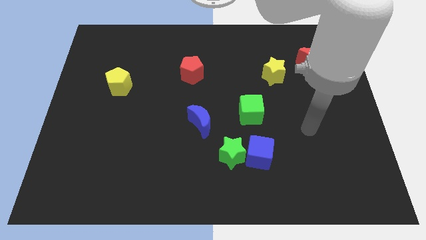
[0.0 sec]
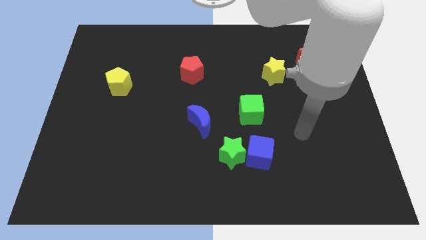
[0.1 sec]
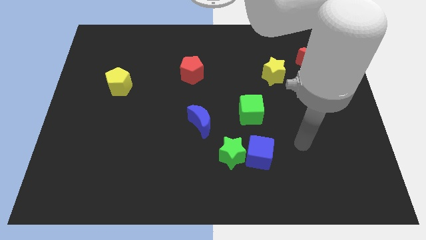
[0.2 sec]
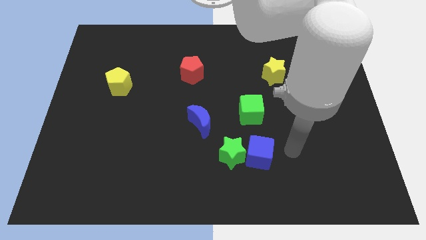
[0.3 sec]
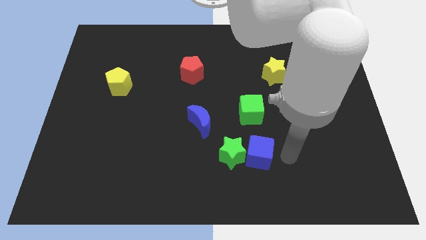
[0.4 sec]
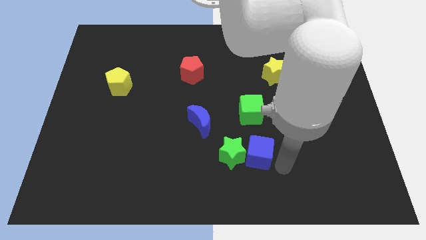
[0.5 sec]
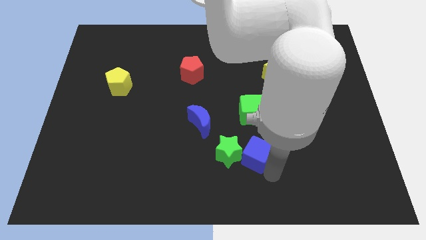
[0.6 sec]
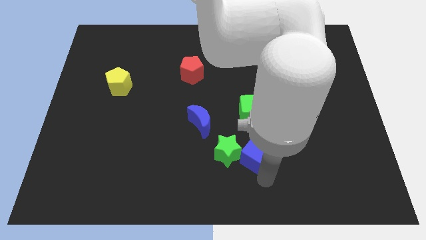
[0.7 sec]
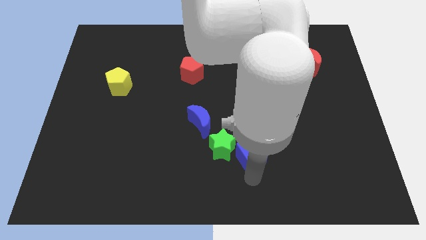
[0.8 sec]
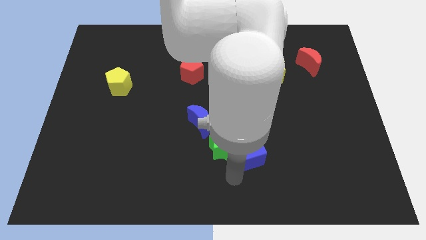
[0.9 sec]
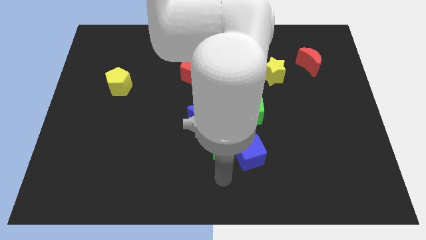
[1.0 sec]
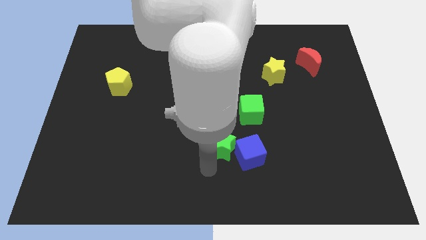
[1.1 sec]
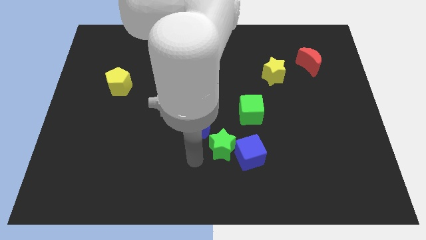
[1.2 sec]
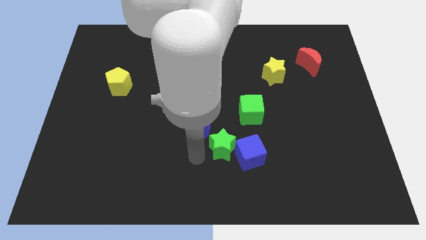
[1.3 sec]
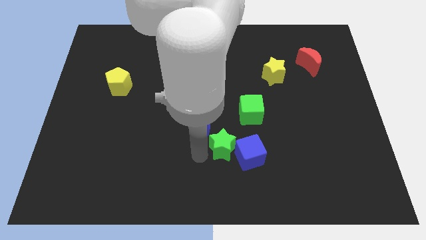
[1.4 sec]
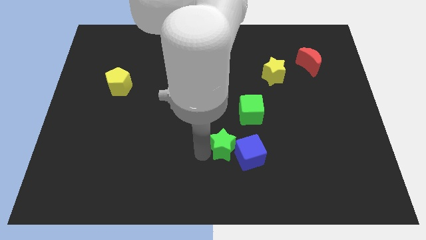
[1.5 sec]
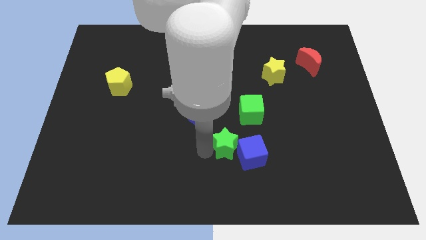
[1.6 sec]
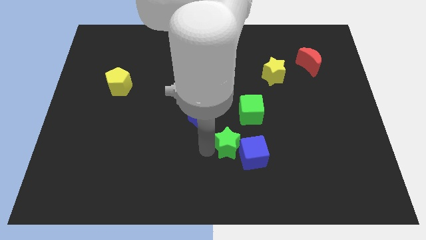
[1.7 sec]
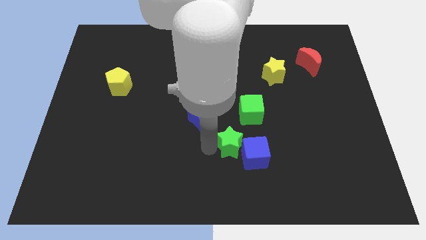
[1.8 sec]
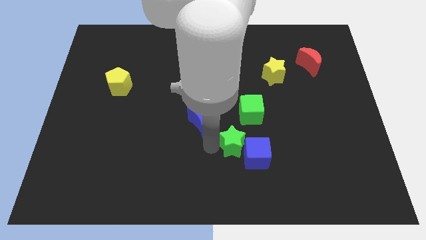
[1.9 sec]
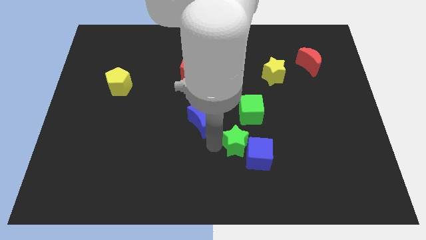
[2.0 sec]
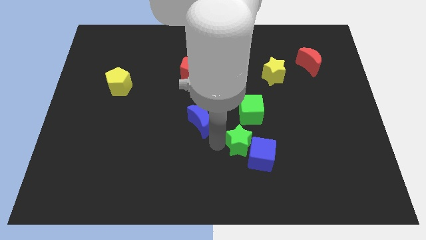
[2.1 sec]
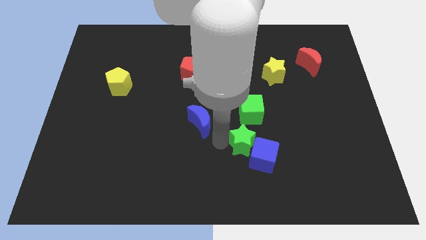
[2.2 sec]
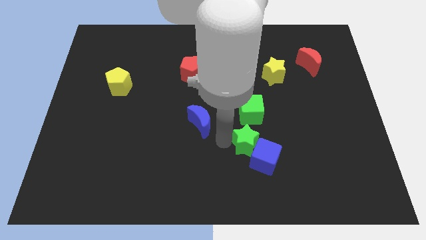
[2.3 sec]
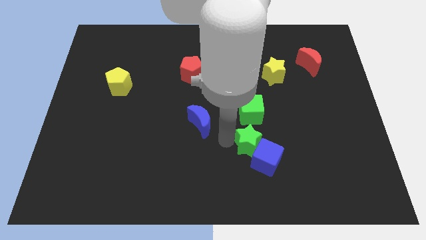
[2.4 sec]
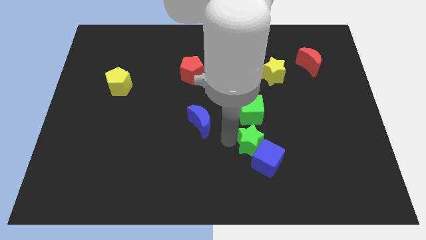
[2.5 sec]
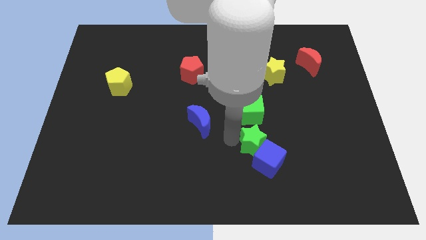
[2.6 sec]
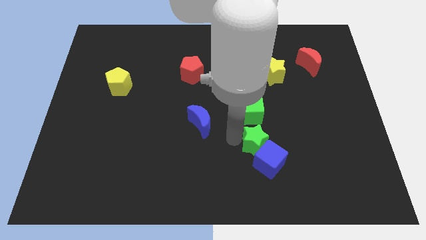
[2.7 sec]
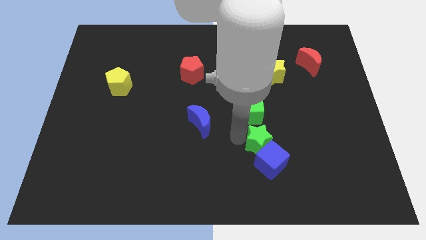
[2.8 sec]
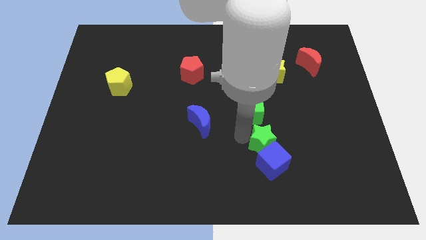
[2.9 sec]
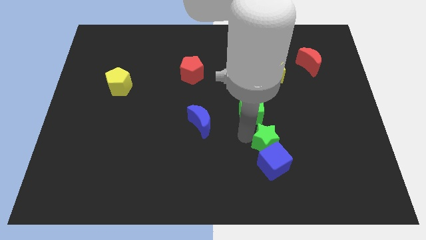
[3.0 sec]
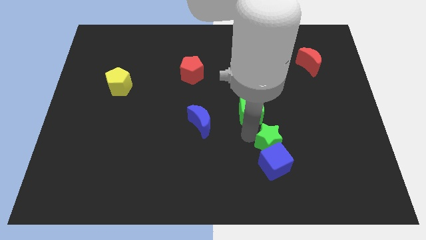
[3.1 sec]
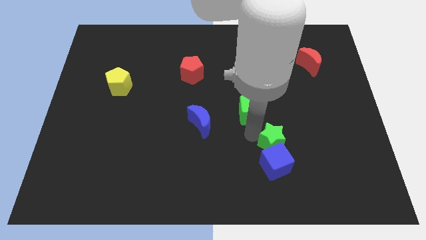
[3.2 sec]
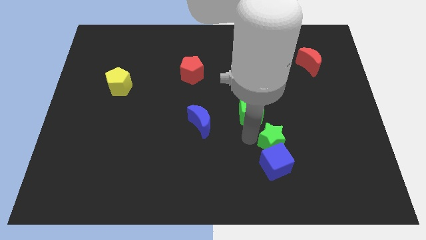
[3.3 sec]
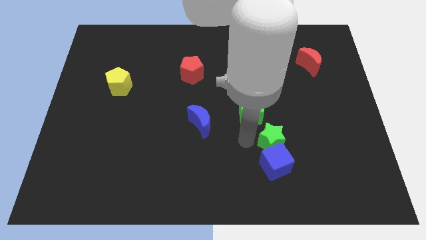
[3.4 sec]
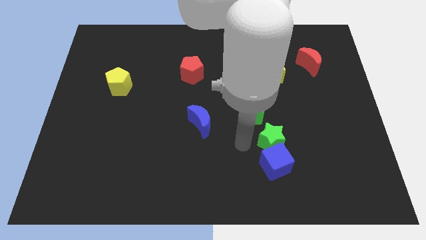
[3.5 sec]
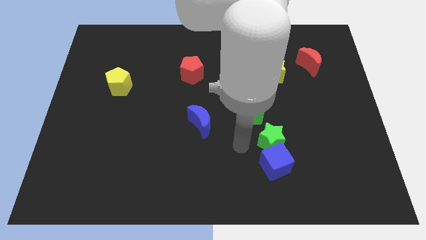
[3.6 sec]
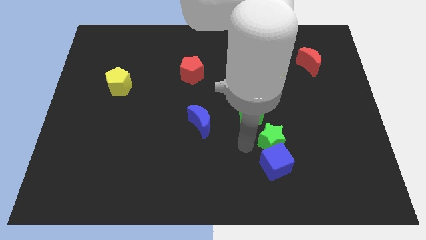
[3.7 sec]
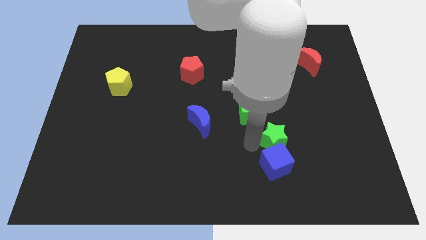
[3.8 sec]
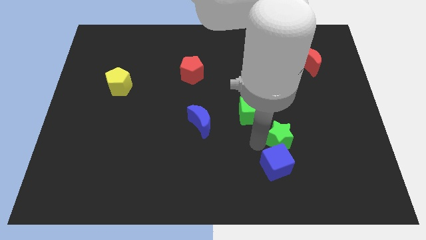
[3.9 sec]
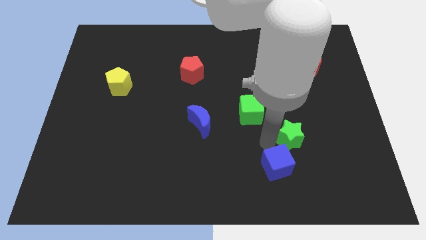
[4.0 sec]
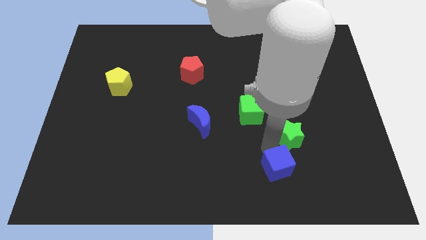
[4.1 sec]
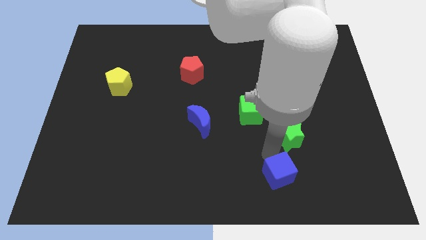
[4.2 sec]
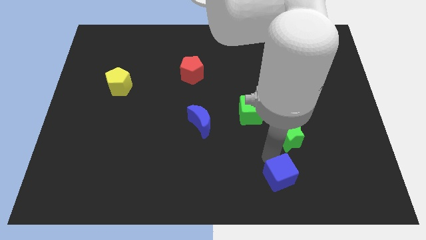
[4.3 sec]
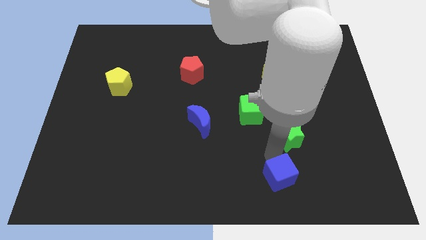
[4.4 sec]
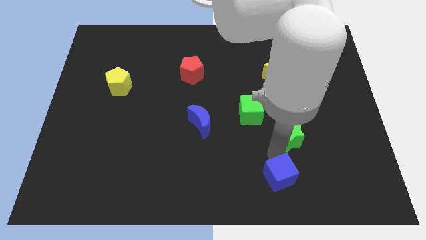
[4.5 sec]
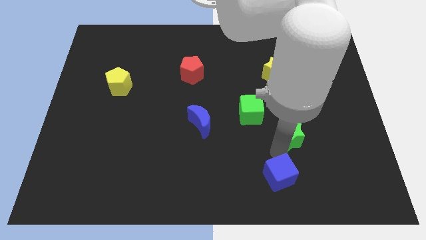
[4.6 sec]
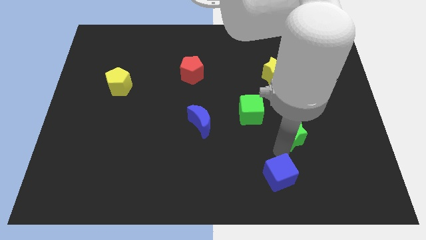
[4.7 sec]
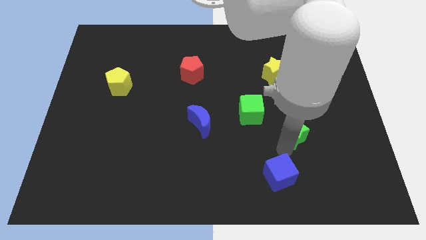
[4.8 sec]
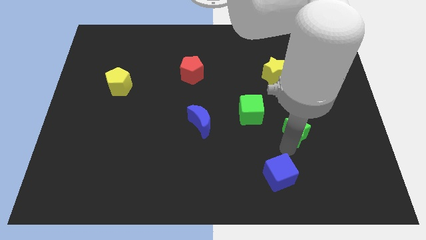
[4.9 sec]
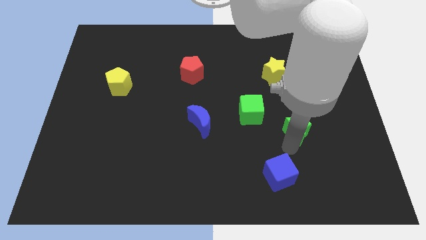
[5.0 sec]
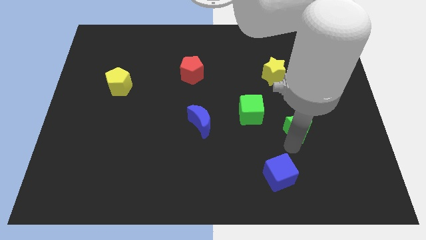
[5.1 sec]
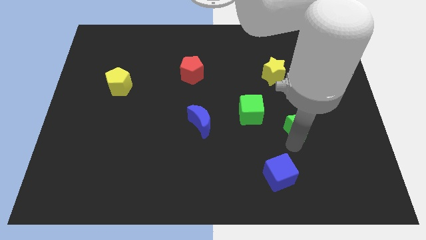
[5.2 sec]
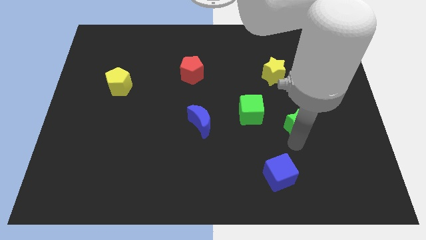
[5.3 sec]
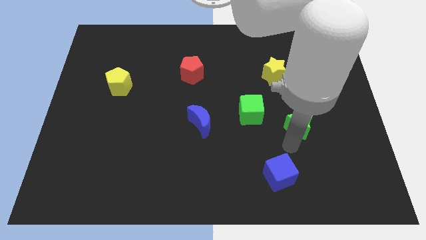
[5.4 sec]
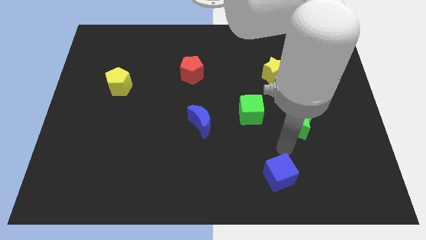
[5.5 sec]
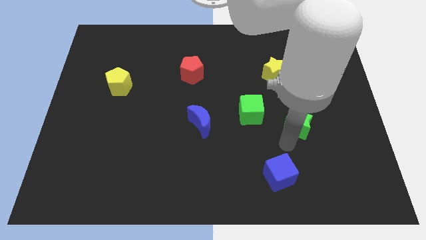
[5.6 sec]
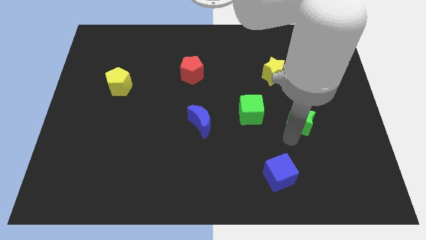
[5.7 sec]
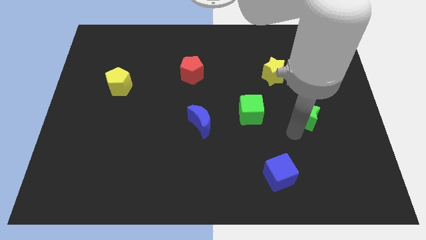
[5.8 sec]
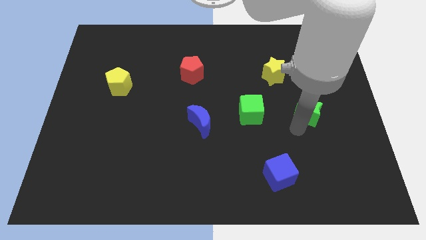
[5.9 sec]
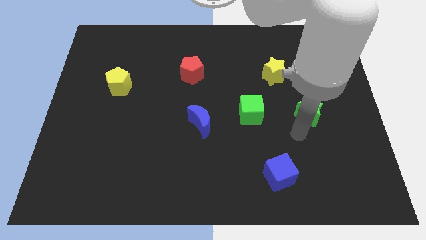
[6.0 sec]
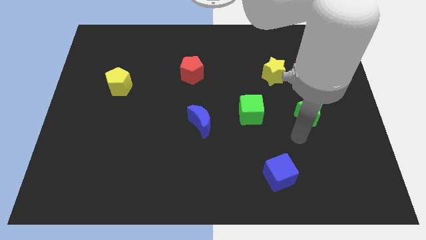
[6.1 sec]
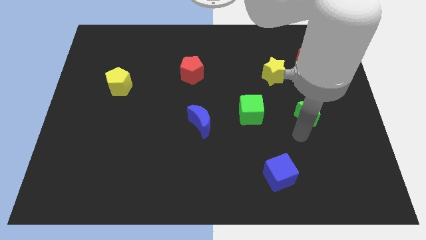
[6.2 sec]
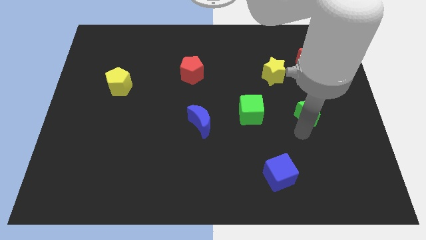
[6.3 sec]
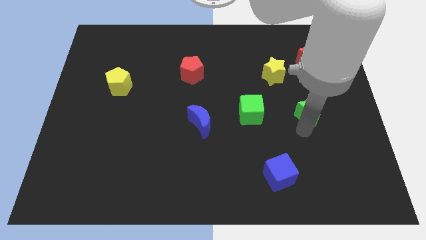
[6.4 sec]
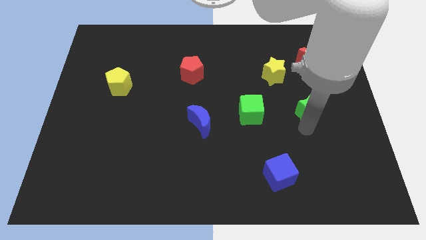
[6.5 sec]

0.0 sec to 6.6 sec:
slide the green star diagonally up and to the right

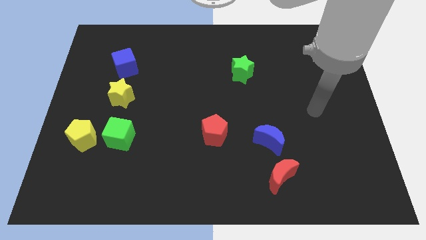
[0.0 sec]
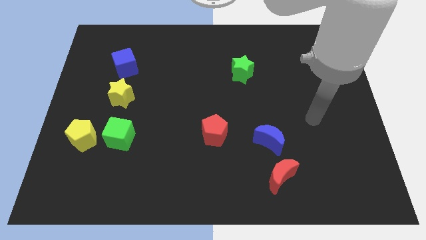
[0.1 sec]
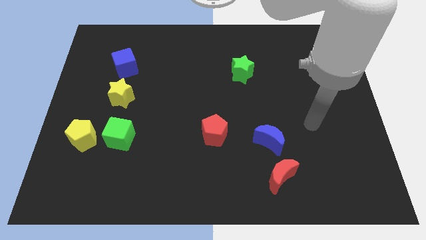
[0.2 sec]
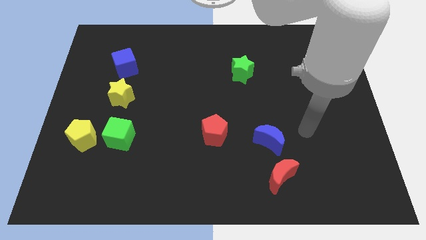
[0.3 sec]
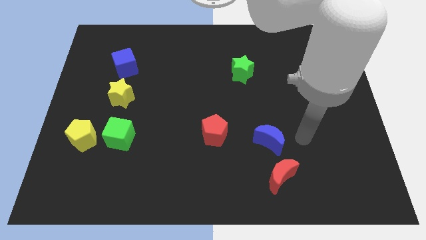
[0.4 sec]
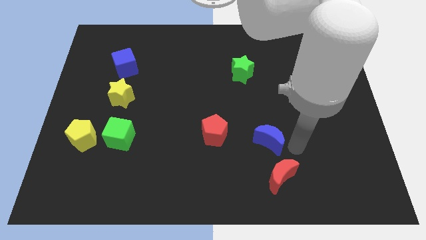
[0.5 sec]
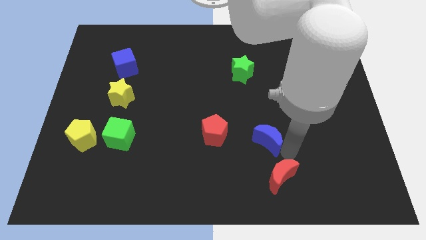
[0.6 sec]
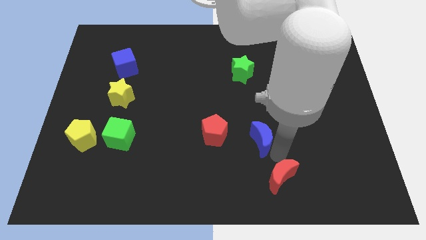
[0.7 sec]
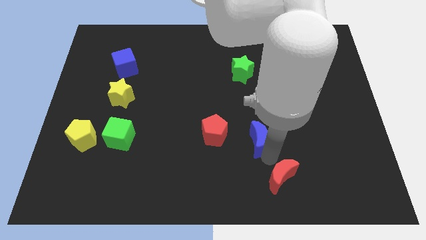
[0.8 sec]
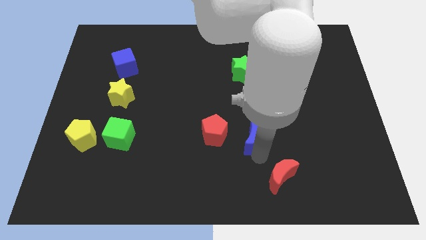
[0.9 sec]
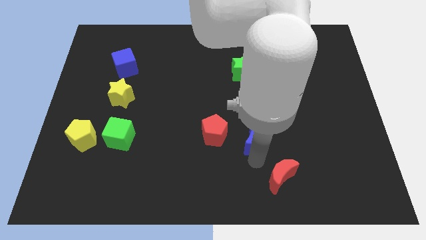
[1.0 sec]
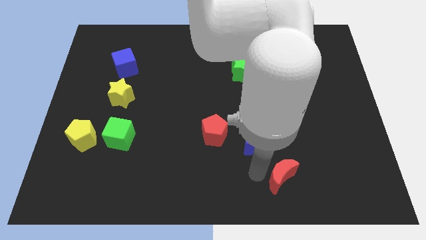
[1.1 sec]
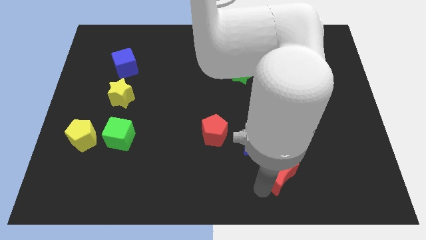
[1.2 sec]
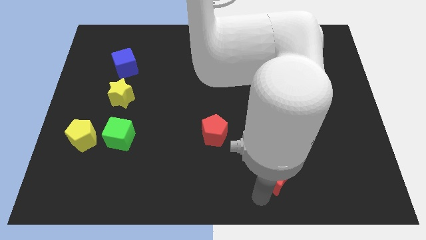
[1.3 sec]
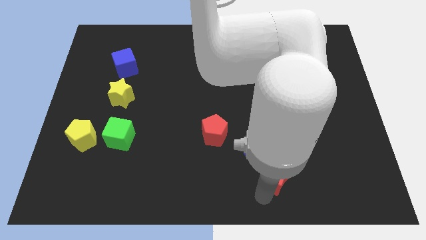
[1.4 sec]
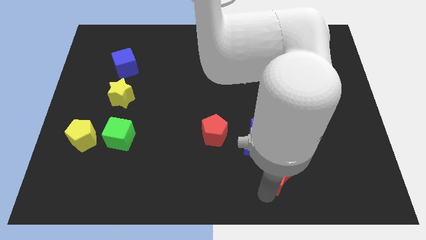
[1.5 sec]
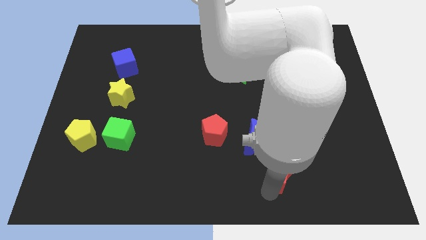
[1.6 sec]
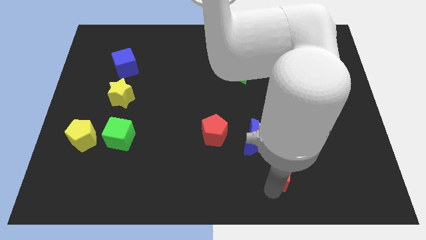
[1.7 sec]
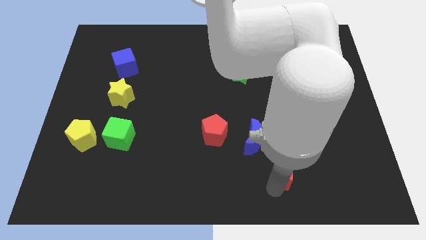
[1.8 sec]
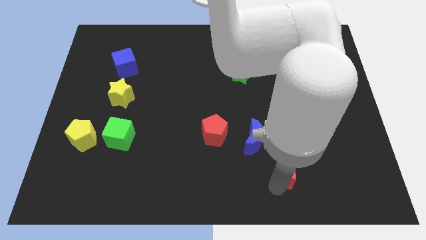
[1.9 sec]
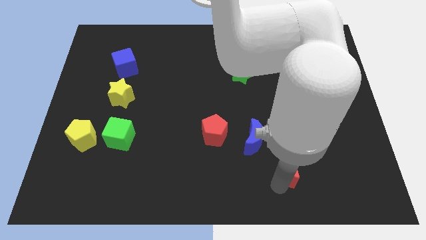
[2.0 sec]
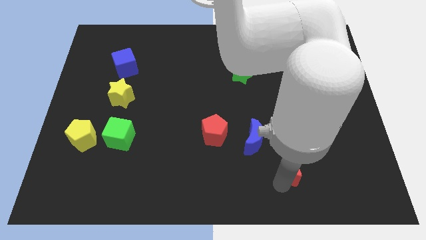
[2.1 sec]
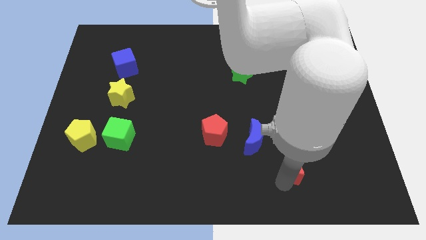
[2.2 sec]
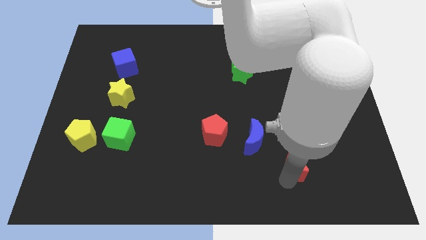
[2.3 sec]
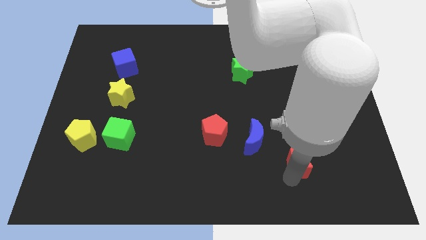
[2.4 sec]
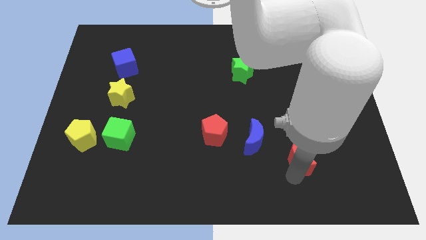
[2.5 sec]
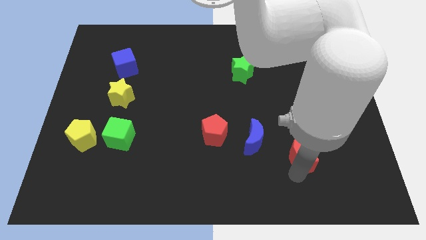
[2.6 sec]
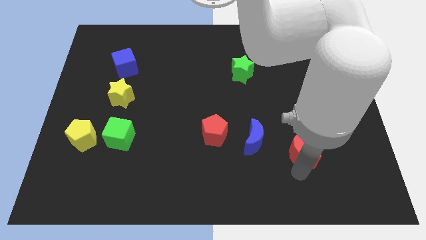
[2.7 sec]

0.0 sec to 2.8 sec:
push the red moon upwards and then to the right a little
